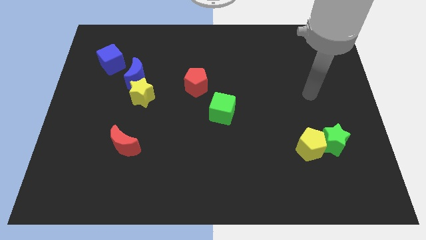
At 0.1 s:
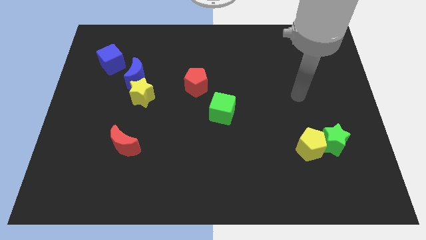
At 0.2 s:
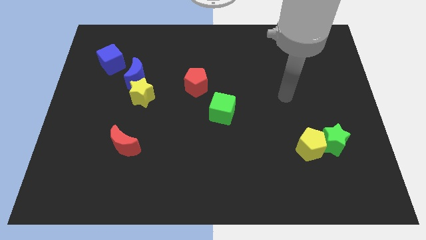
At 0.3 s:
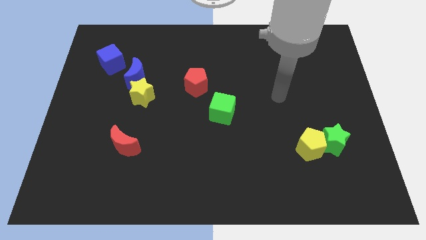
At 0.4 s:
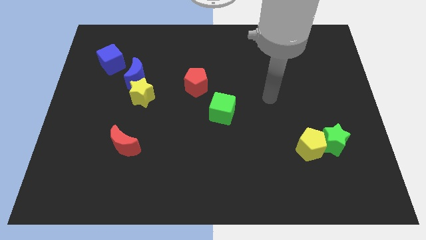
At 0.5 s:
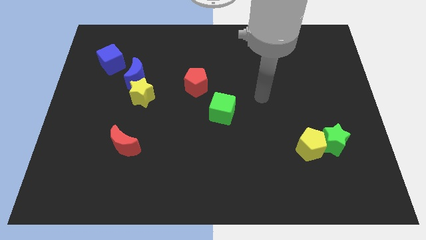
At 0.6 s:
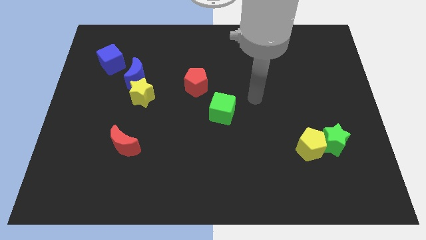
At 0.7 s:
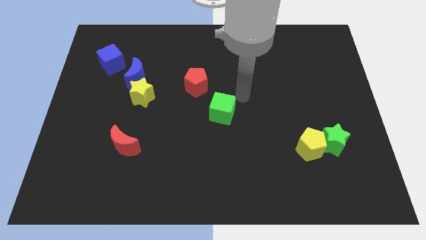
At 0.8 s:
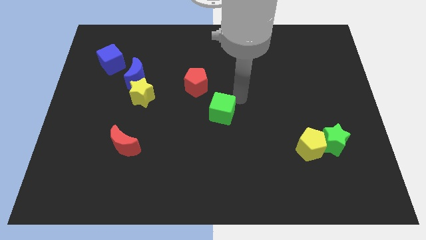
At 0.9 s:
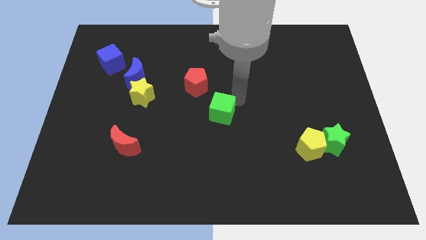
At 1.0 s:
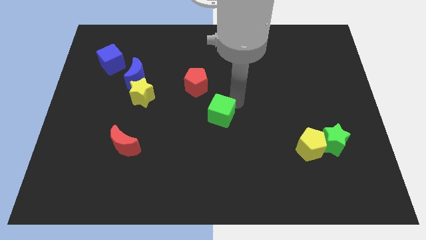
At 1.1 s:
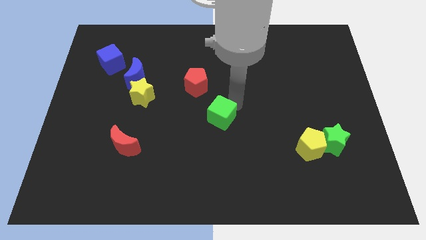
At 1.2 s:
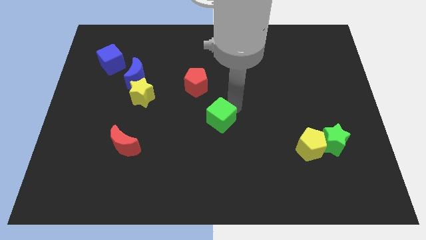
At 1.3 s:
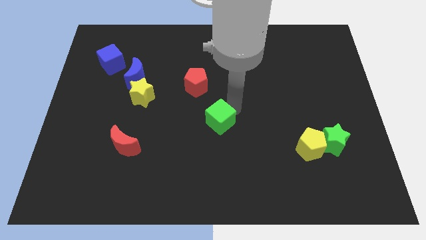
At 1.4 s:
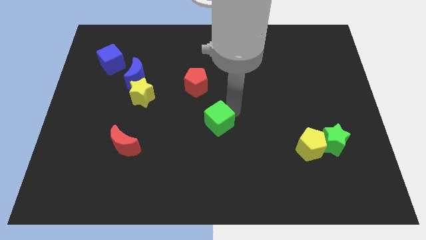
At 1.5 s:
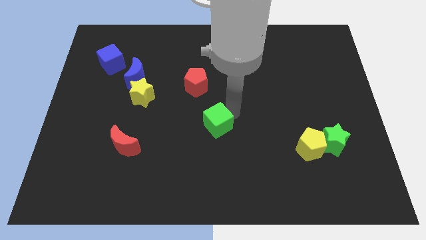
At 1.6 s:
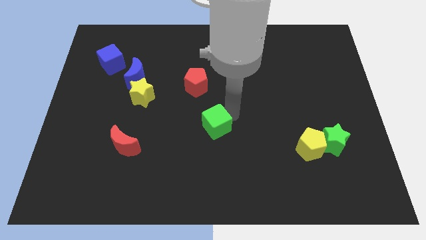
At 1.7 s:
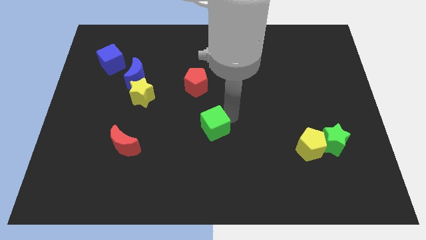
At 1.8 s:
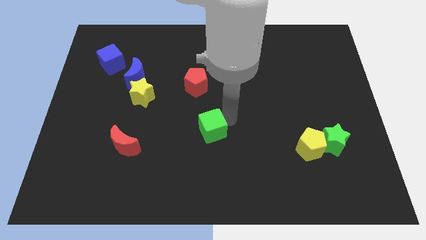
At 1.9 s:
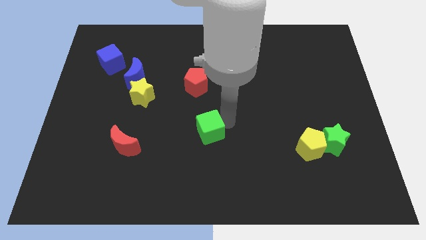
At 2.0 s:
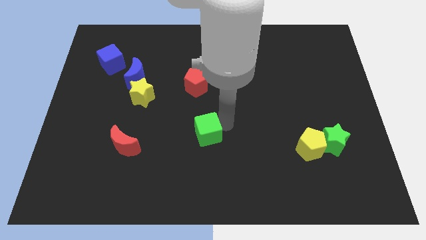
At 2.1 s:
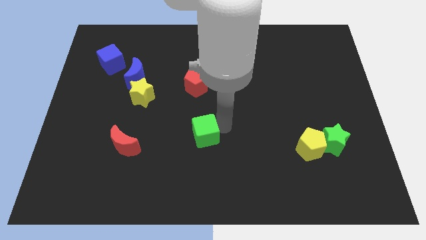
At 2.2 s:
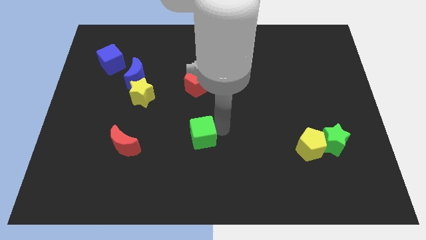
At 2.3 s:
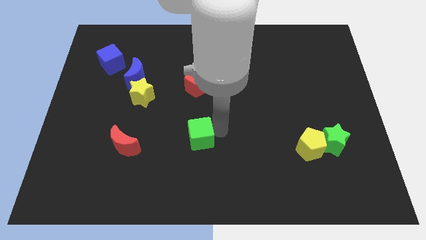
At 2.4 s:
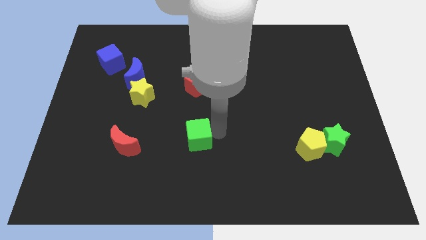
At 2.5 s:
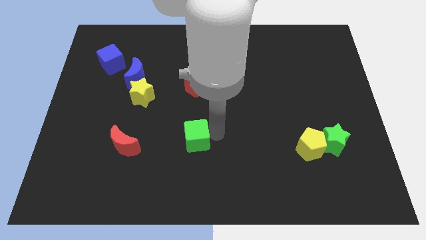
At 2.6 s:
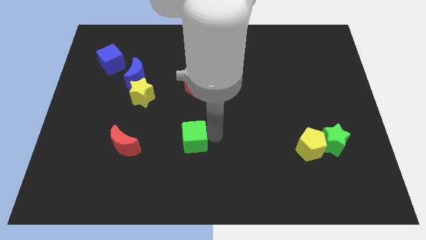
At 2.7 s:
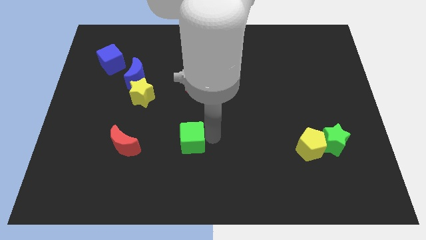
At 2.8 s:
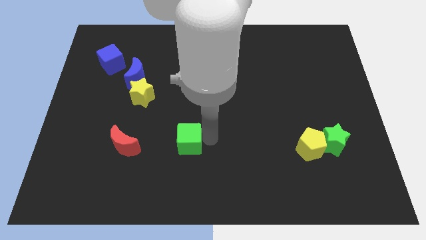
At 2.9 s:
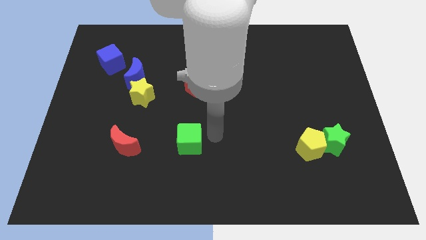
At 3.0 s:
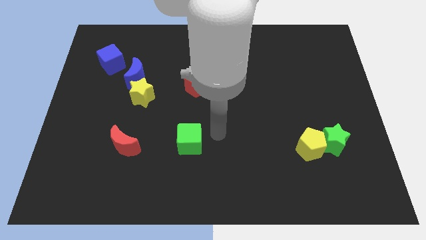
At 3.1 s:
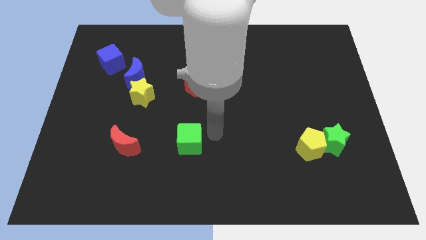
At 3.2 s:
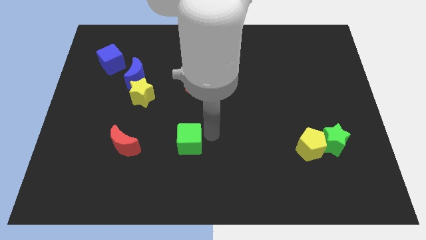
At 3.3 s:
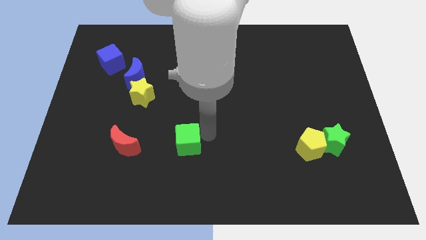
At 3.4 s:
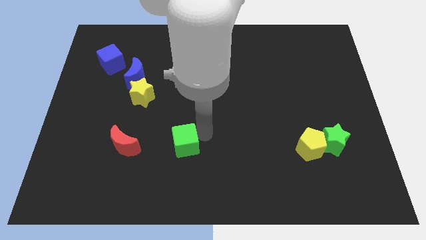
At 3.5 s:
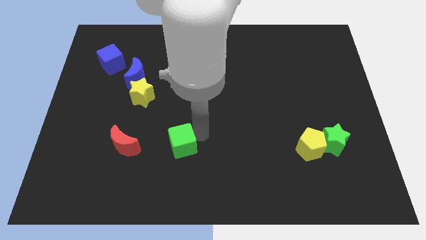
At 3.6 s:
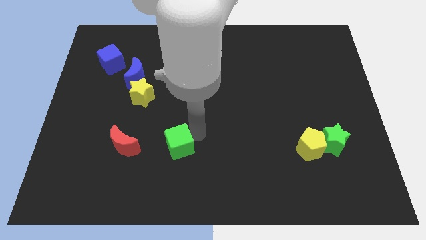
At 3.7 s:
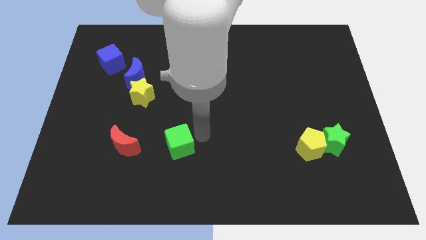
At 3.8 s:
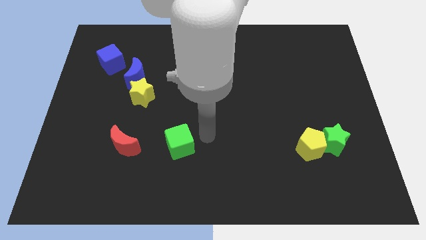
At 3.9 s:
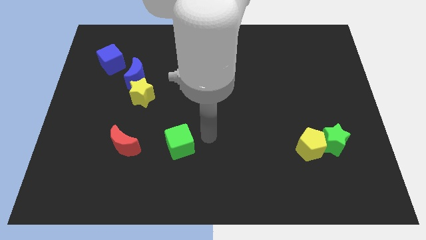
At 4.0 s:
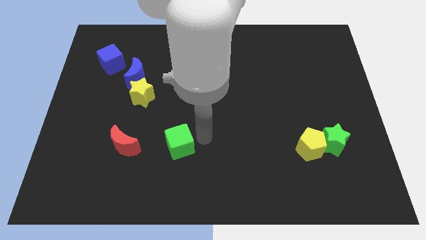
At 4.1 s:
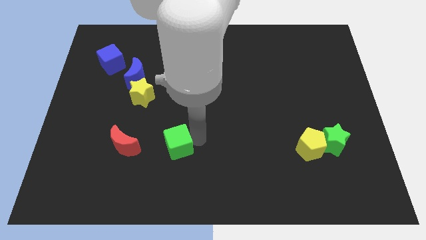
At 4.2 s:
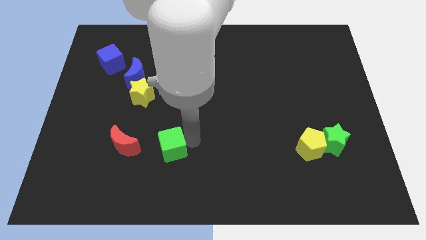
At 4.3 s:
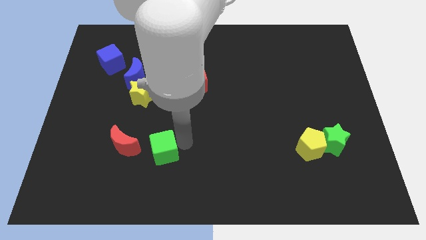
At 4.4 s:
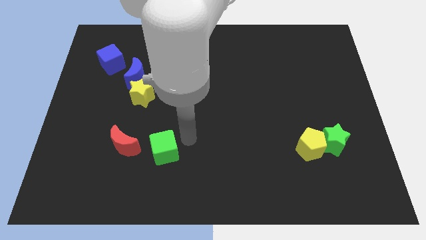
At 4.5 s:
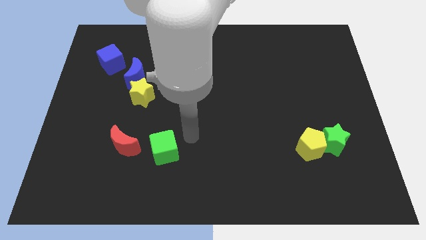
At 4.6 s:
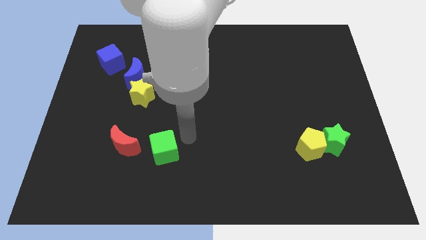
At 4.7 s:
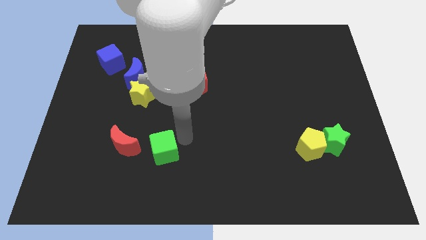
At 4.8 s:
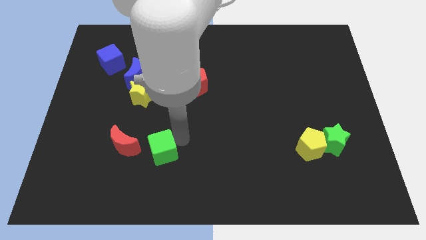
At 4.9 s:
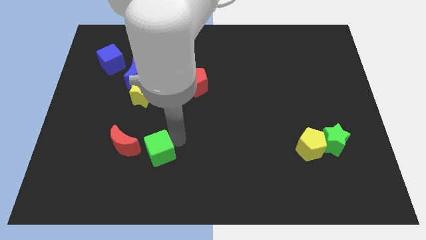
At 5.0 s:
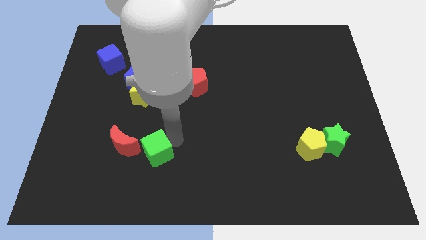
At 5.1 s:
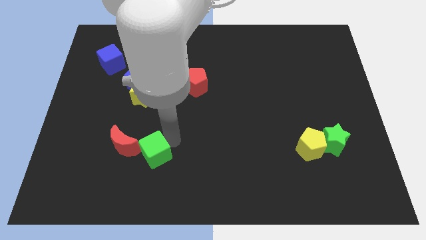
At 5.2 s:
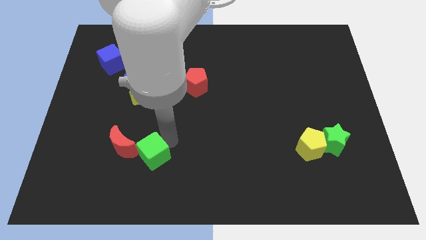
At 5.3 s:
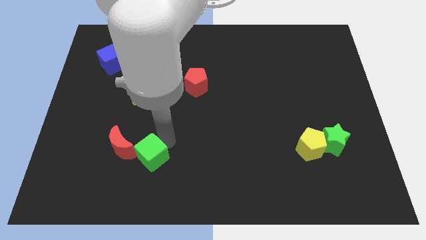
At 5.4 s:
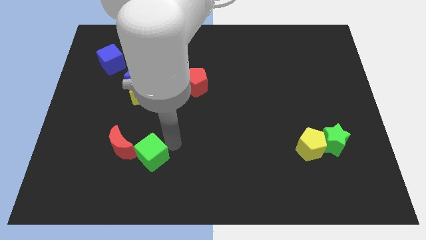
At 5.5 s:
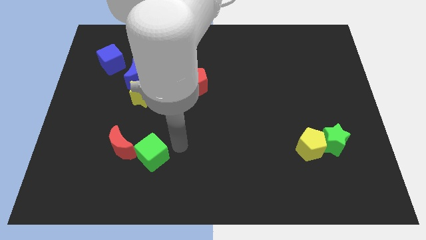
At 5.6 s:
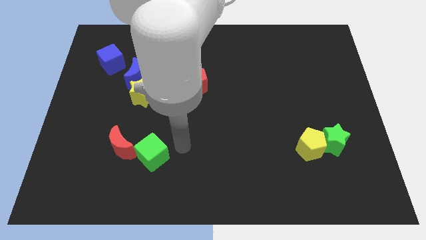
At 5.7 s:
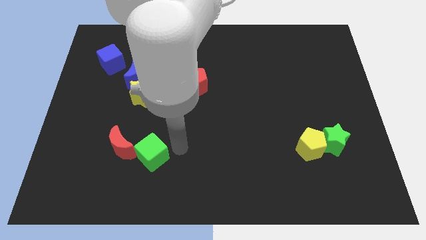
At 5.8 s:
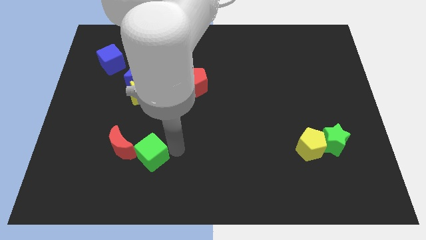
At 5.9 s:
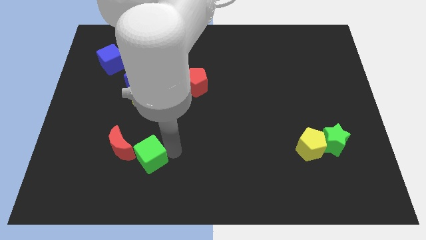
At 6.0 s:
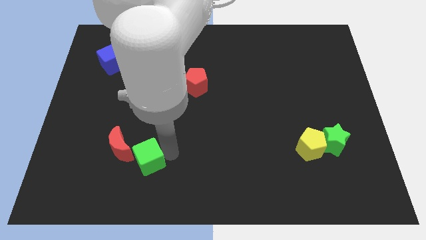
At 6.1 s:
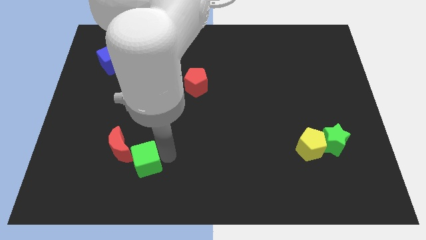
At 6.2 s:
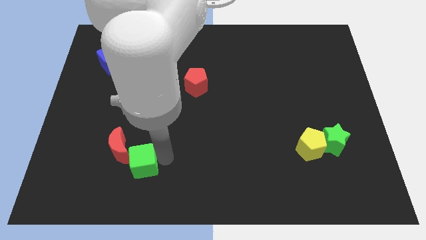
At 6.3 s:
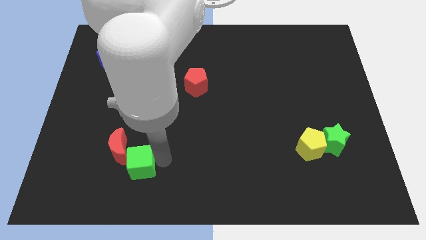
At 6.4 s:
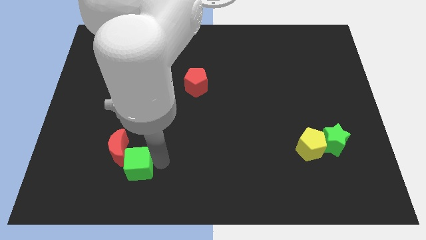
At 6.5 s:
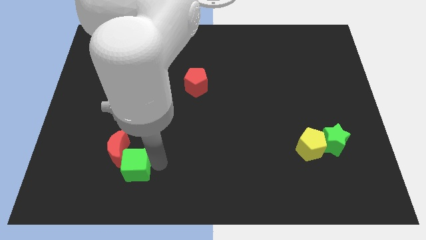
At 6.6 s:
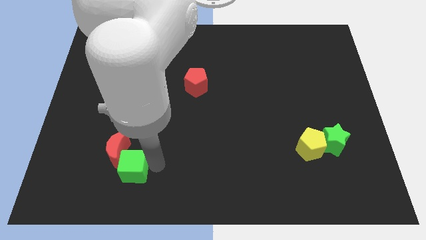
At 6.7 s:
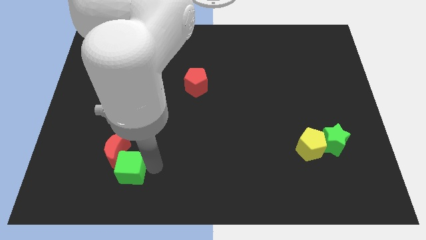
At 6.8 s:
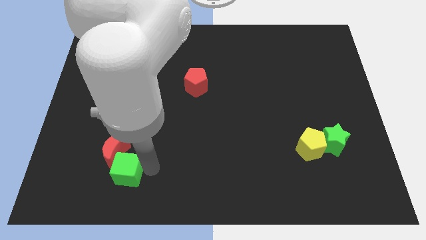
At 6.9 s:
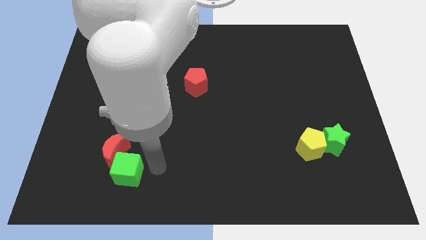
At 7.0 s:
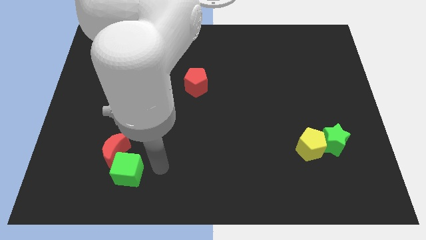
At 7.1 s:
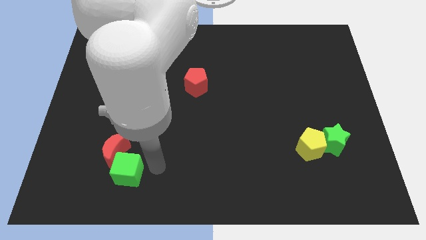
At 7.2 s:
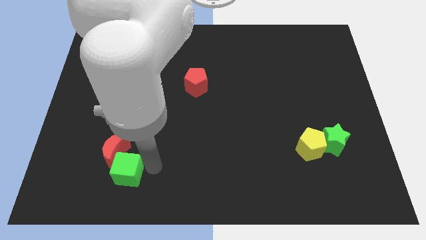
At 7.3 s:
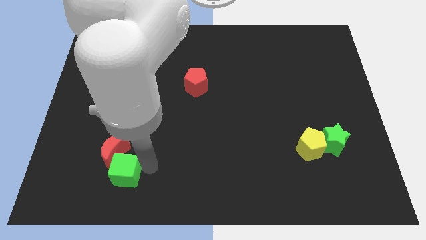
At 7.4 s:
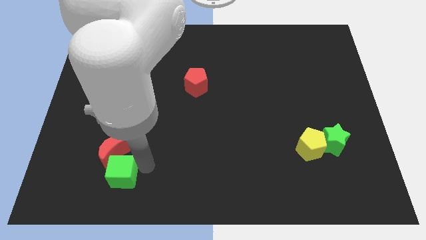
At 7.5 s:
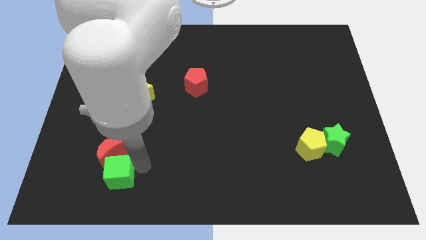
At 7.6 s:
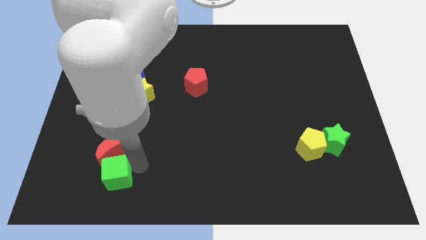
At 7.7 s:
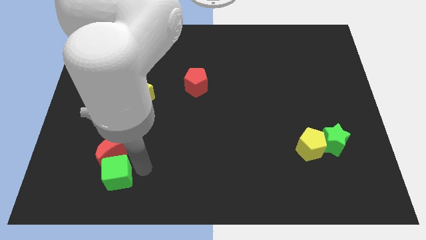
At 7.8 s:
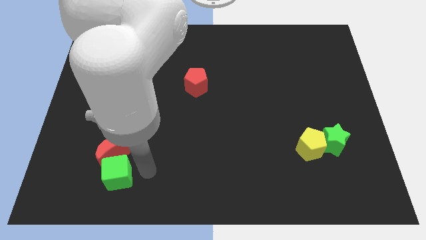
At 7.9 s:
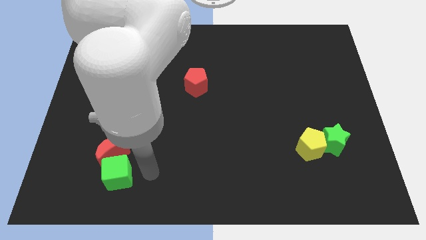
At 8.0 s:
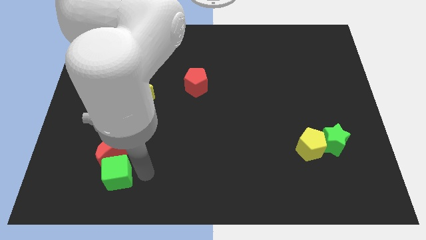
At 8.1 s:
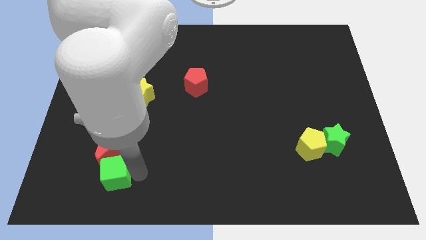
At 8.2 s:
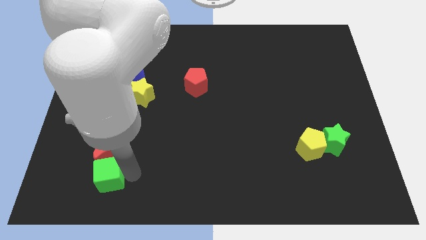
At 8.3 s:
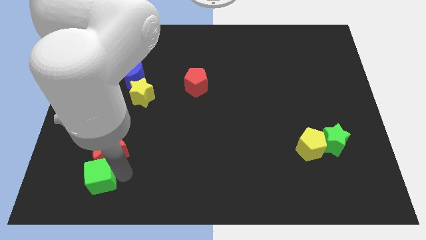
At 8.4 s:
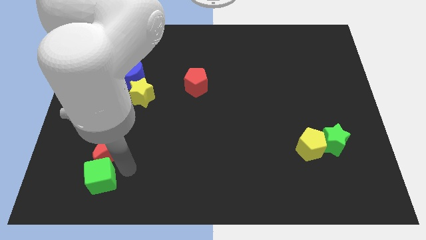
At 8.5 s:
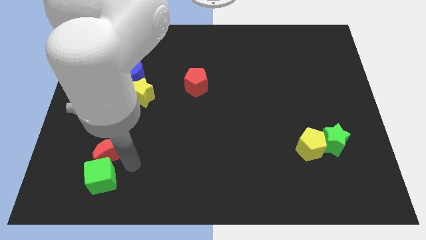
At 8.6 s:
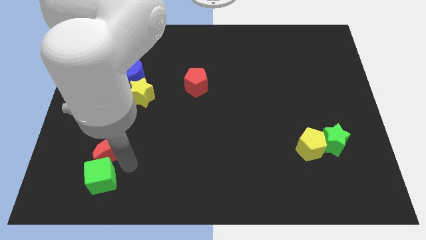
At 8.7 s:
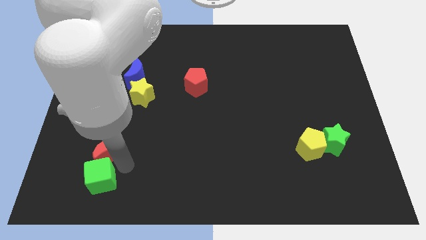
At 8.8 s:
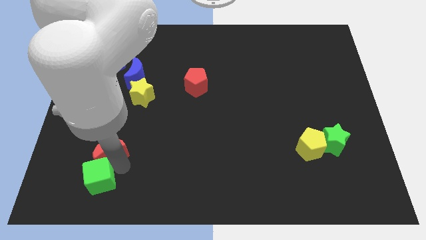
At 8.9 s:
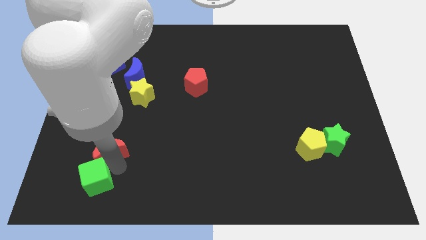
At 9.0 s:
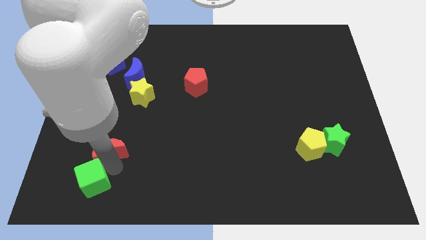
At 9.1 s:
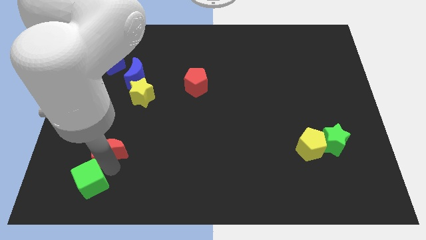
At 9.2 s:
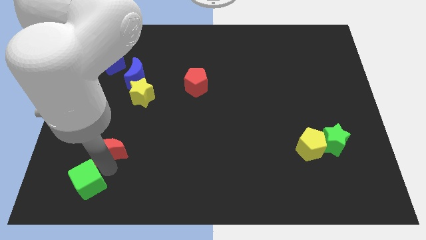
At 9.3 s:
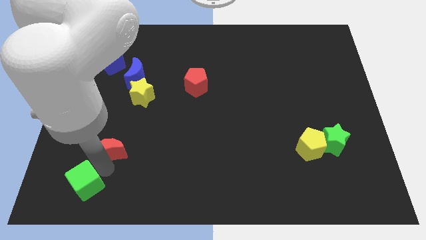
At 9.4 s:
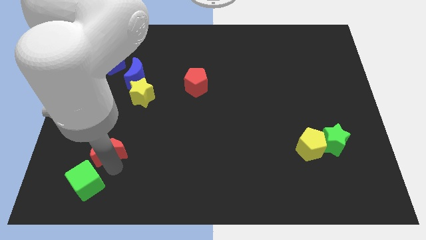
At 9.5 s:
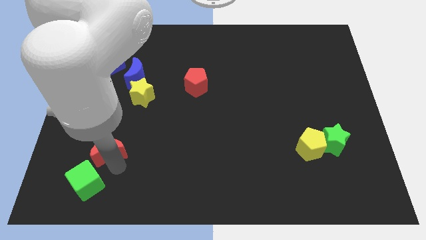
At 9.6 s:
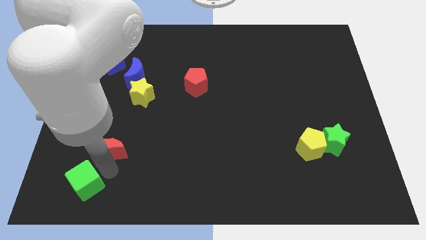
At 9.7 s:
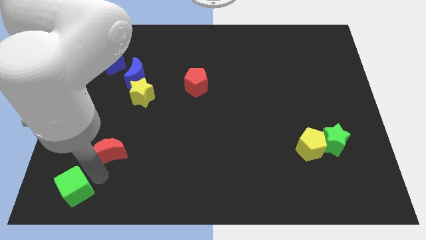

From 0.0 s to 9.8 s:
move the green cube to the bottom left of the board
